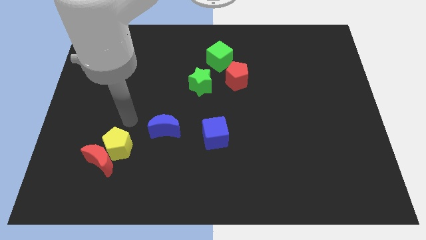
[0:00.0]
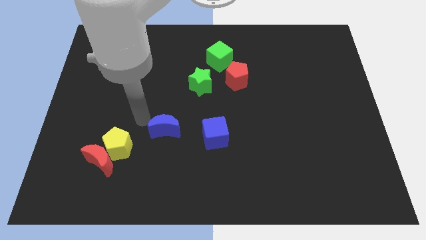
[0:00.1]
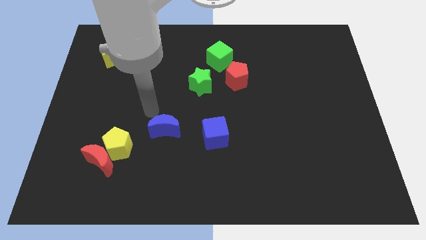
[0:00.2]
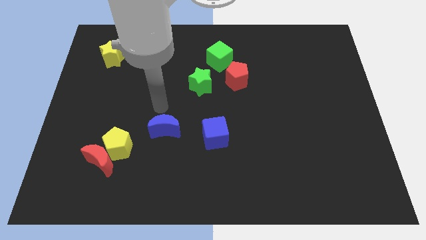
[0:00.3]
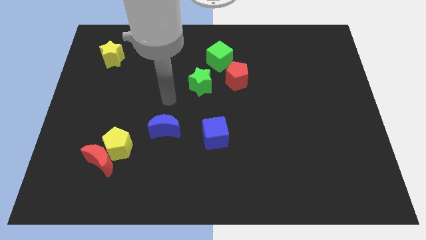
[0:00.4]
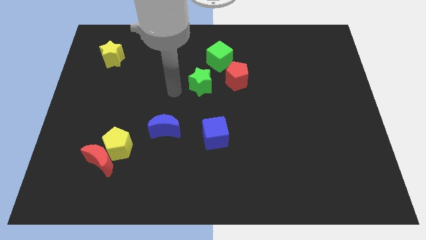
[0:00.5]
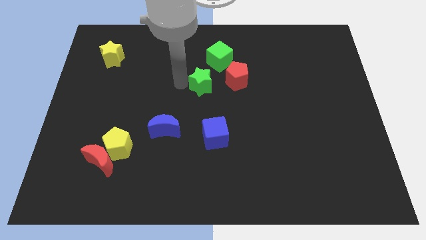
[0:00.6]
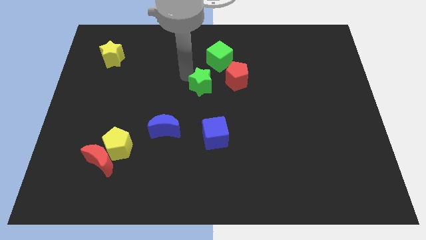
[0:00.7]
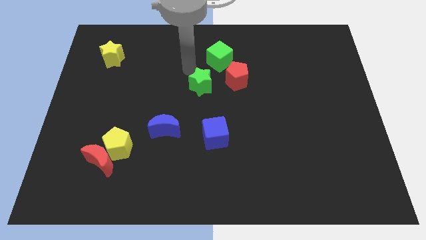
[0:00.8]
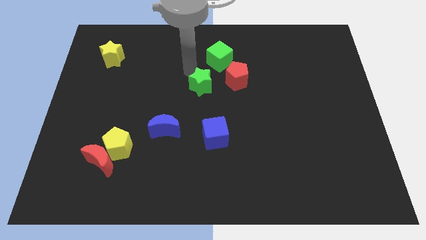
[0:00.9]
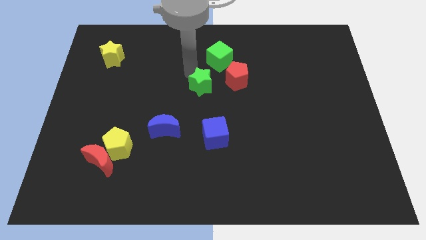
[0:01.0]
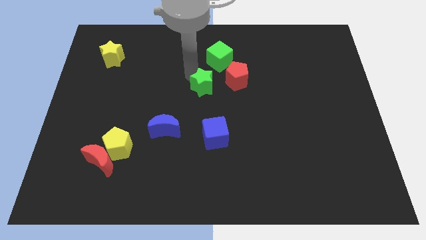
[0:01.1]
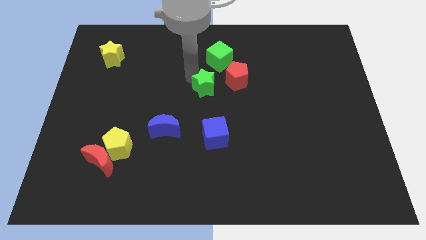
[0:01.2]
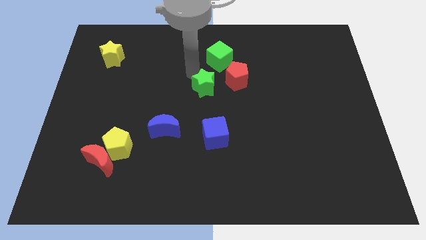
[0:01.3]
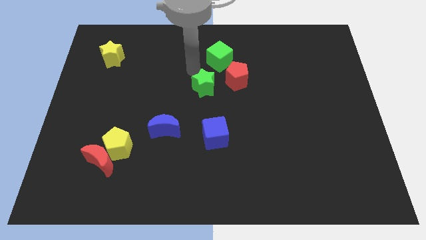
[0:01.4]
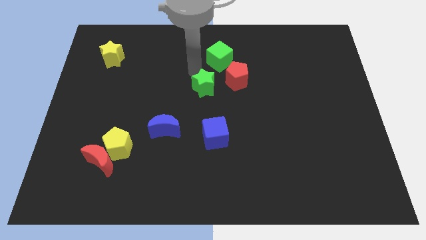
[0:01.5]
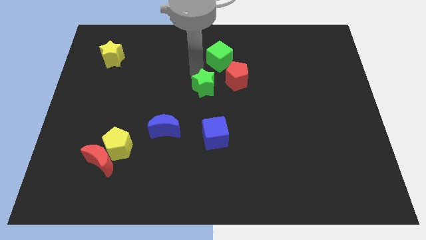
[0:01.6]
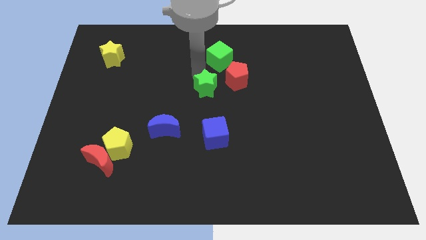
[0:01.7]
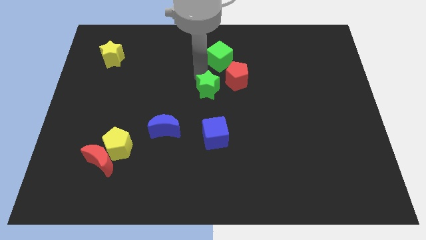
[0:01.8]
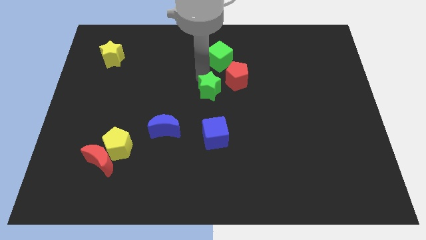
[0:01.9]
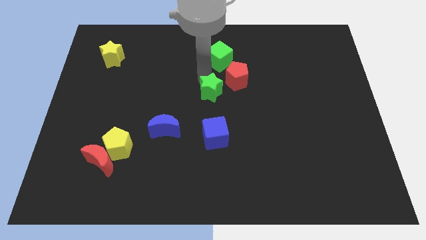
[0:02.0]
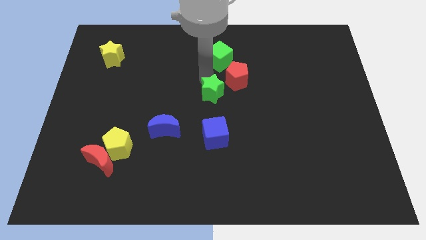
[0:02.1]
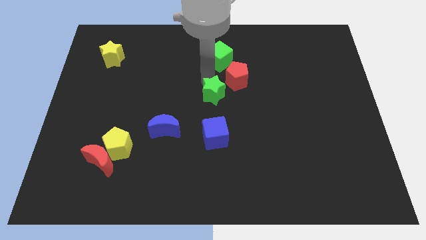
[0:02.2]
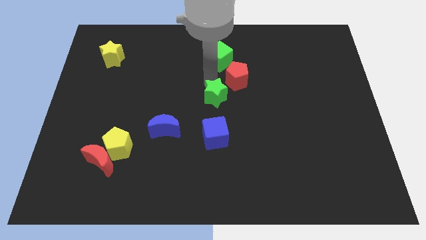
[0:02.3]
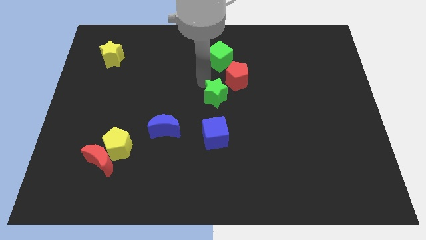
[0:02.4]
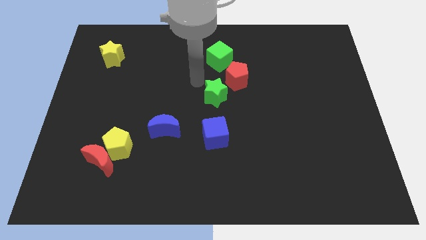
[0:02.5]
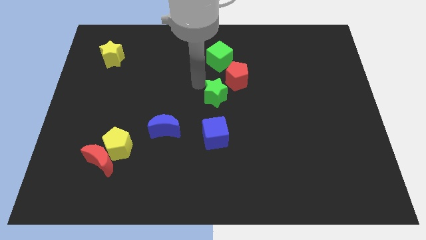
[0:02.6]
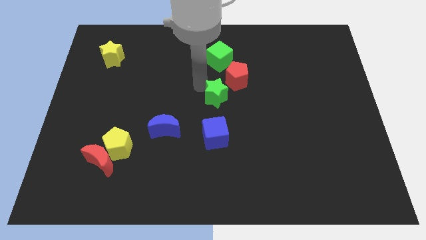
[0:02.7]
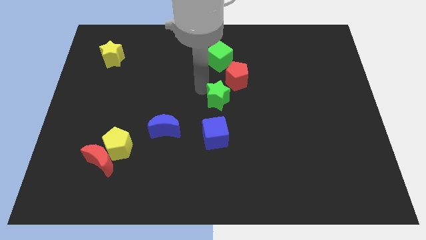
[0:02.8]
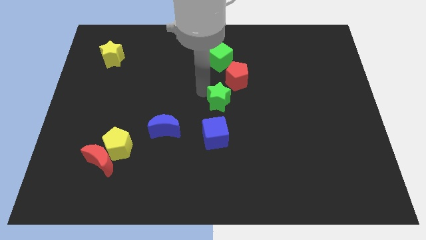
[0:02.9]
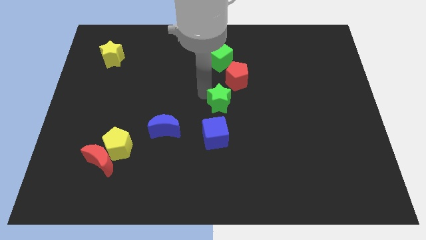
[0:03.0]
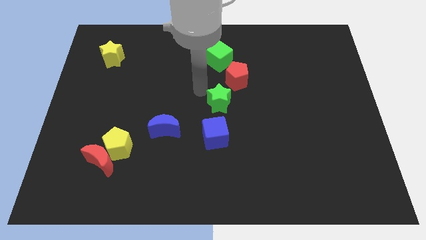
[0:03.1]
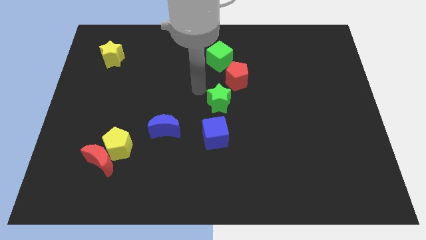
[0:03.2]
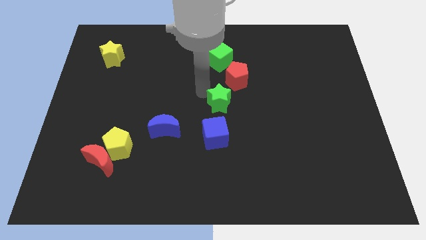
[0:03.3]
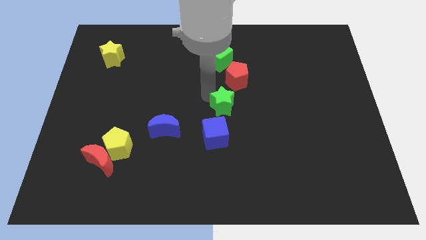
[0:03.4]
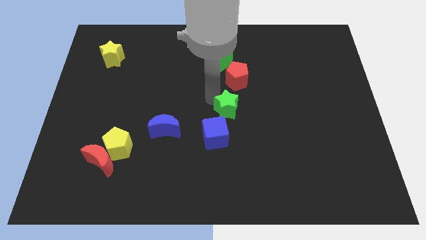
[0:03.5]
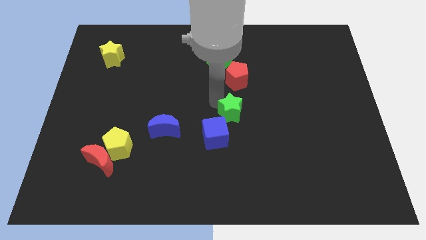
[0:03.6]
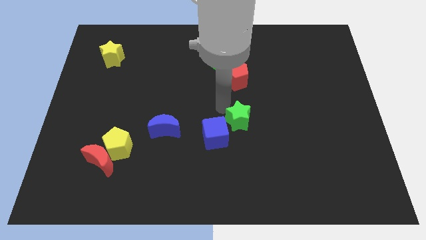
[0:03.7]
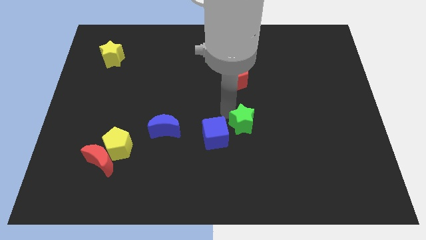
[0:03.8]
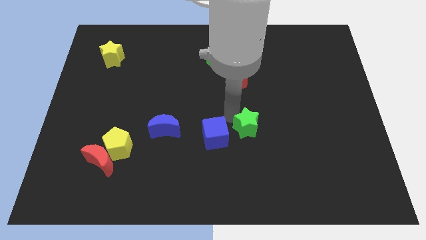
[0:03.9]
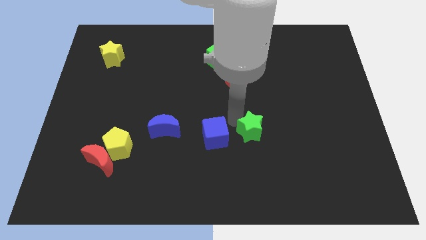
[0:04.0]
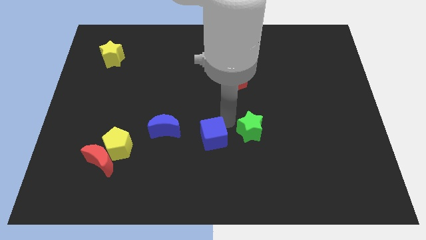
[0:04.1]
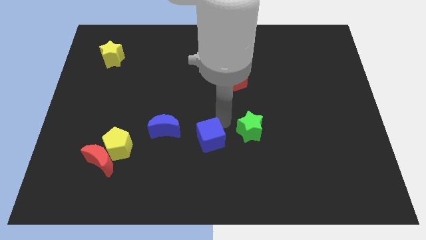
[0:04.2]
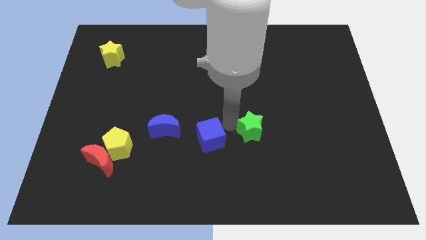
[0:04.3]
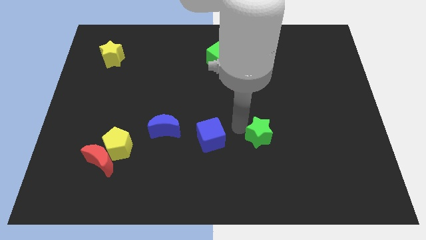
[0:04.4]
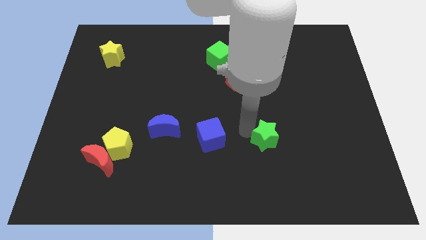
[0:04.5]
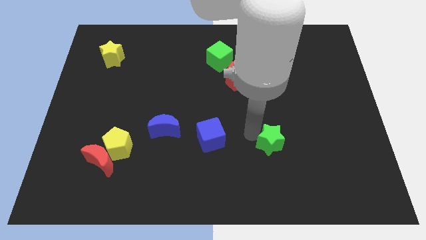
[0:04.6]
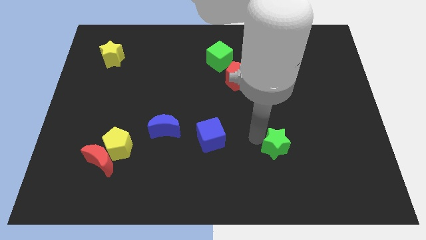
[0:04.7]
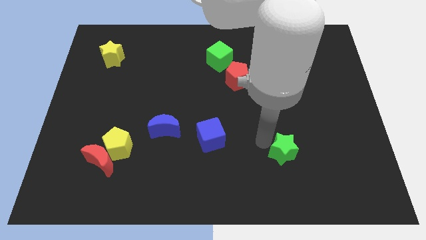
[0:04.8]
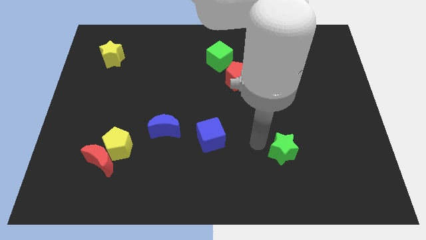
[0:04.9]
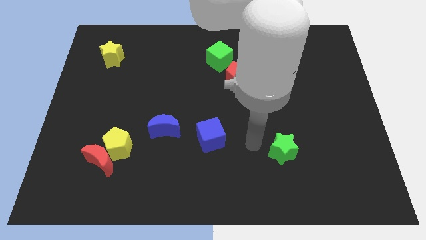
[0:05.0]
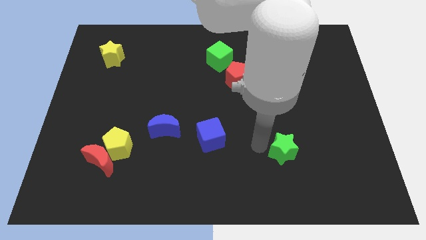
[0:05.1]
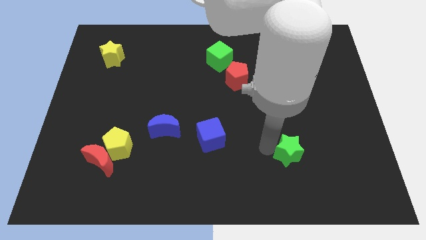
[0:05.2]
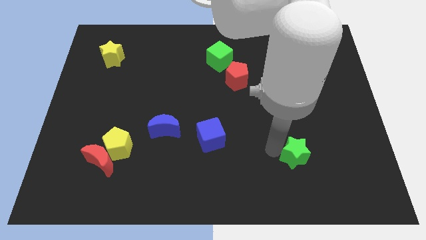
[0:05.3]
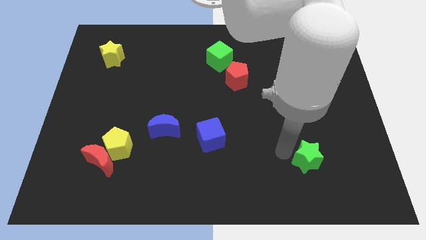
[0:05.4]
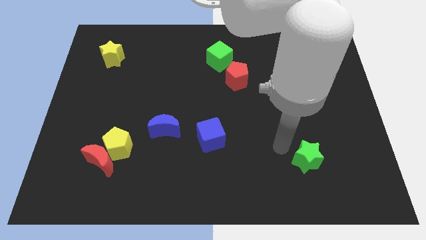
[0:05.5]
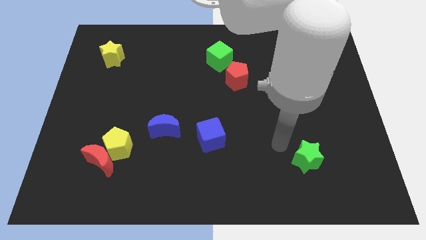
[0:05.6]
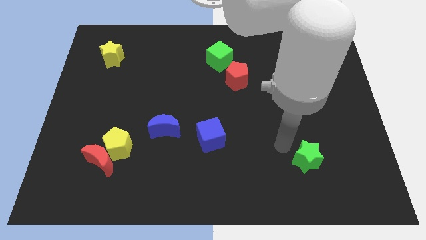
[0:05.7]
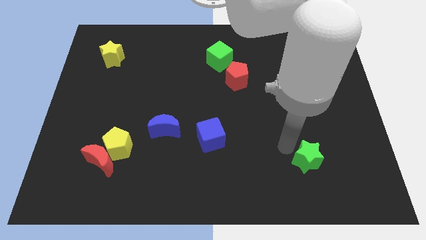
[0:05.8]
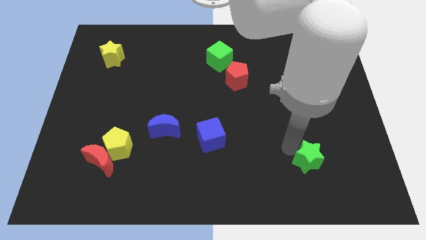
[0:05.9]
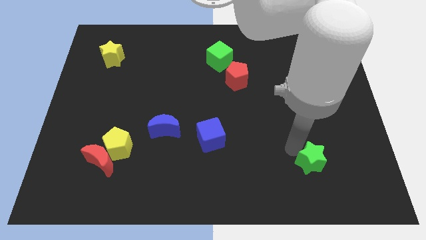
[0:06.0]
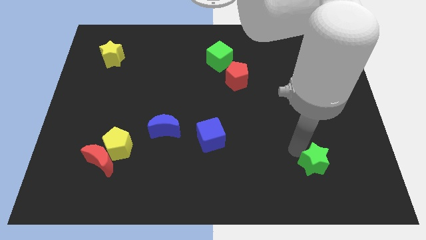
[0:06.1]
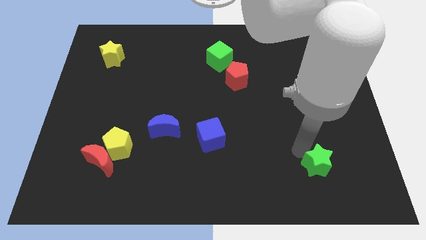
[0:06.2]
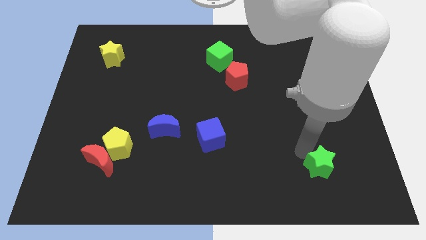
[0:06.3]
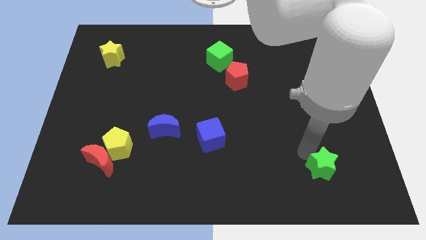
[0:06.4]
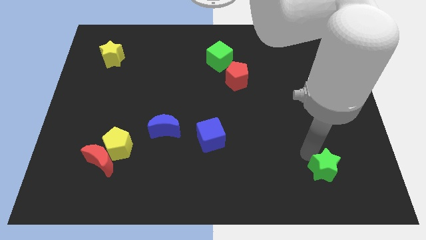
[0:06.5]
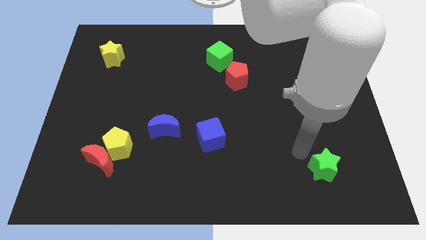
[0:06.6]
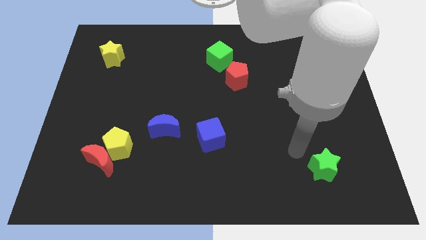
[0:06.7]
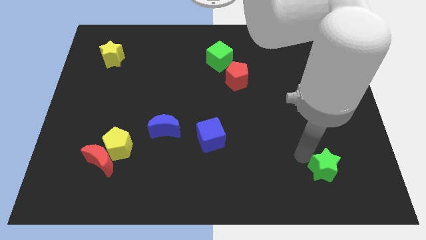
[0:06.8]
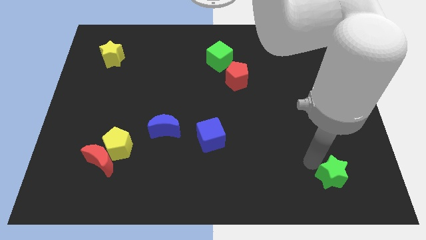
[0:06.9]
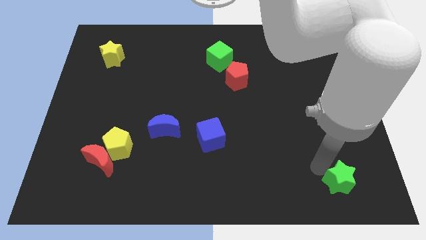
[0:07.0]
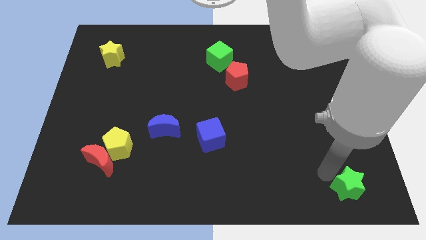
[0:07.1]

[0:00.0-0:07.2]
slide the green star to the bottom right
